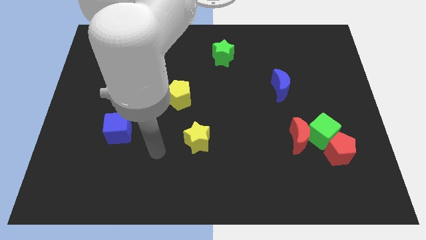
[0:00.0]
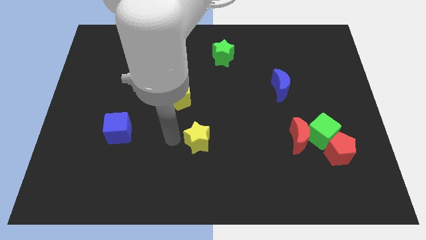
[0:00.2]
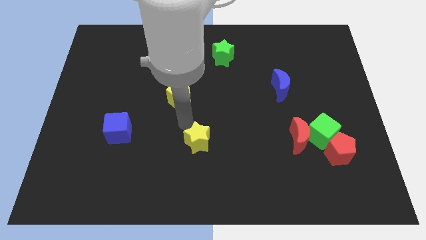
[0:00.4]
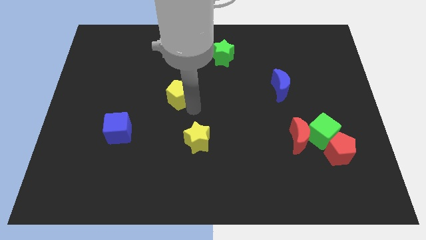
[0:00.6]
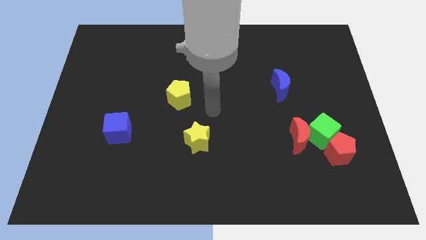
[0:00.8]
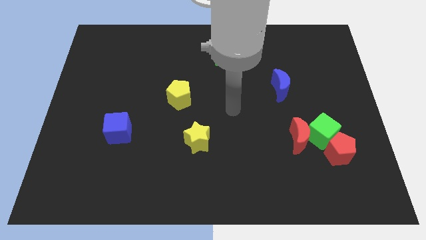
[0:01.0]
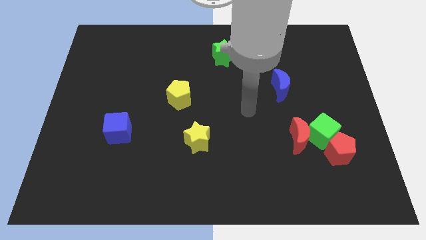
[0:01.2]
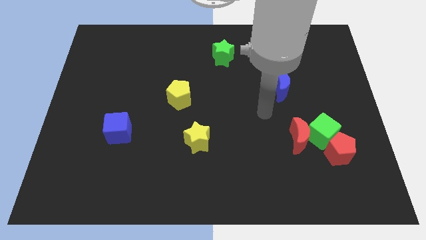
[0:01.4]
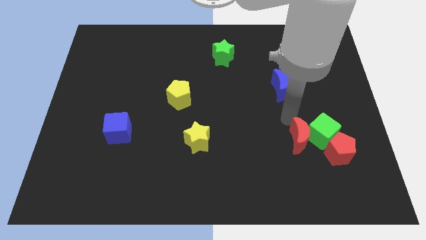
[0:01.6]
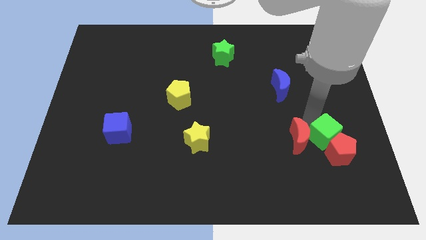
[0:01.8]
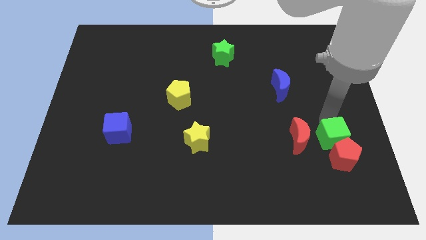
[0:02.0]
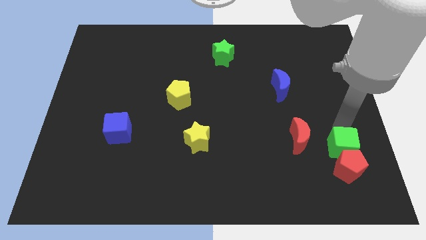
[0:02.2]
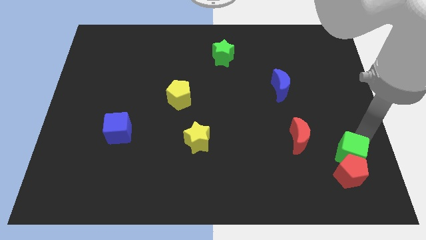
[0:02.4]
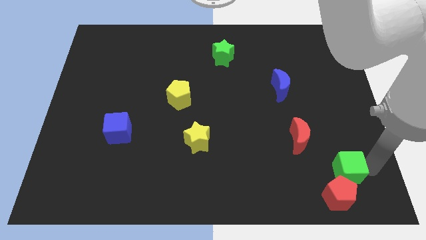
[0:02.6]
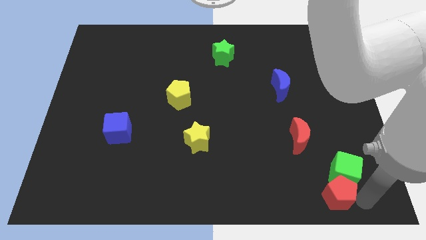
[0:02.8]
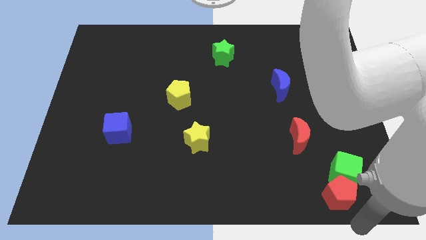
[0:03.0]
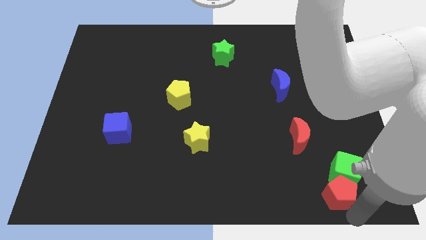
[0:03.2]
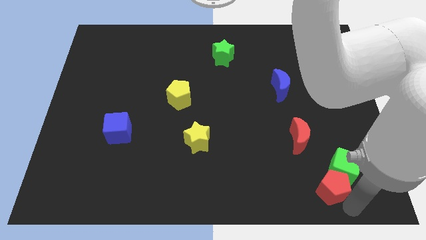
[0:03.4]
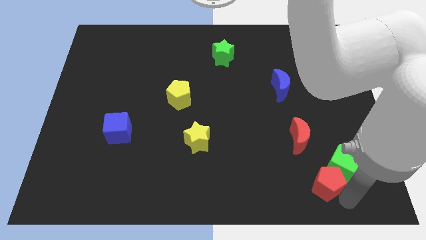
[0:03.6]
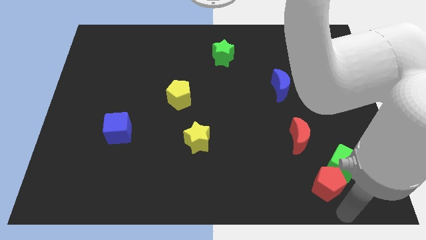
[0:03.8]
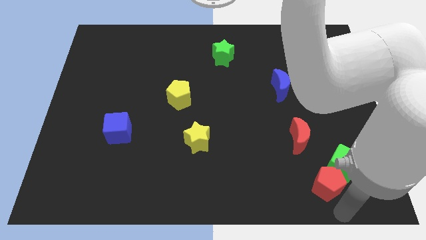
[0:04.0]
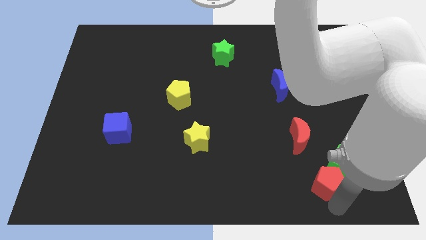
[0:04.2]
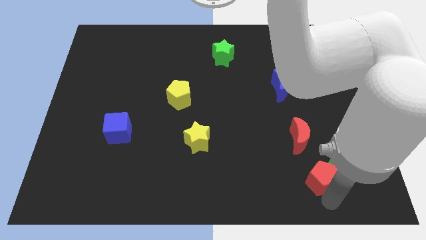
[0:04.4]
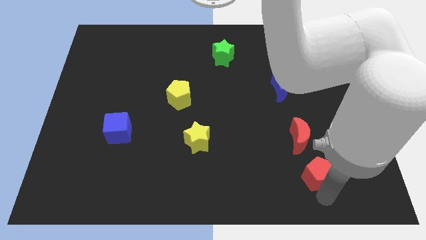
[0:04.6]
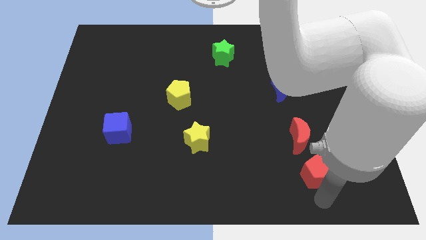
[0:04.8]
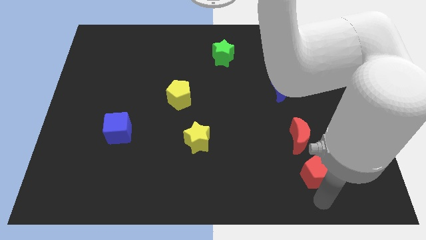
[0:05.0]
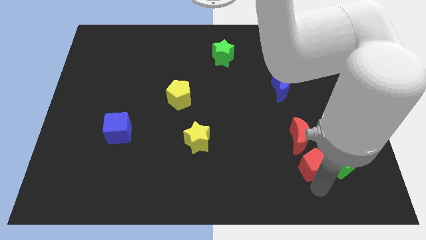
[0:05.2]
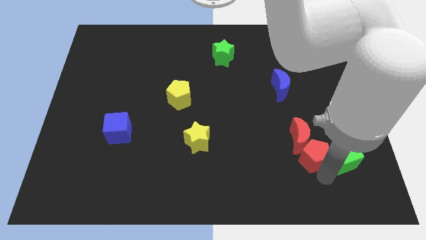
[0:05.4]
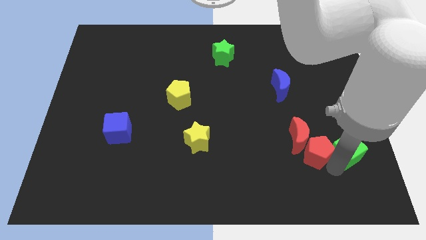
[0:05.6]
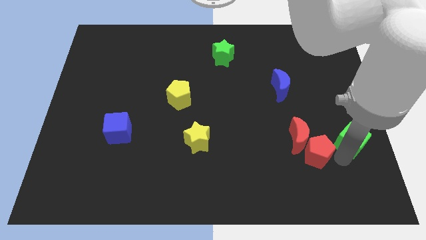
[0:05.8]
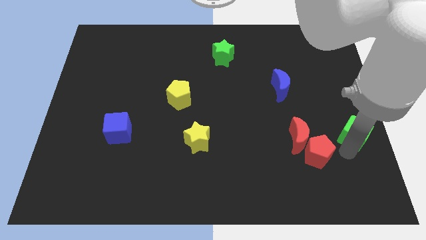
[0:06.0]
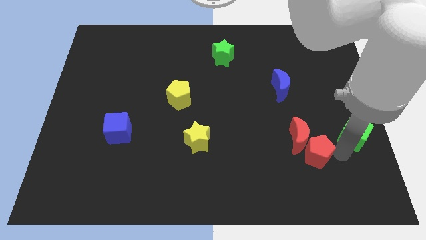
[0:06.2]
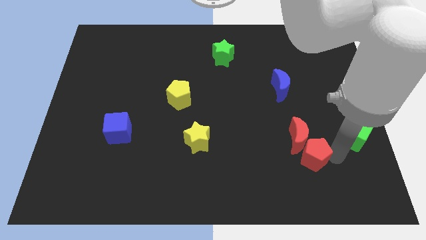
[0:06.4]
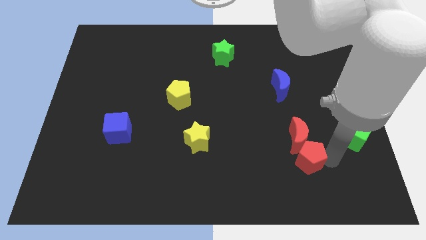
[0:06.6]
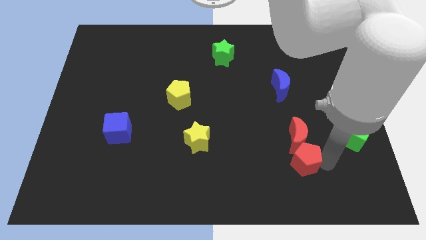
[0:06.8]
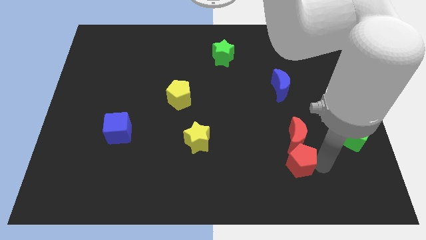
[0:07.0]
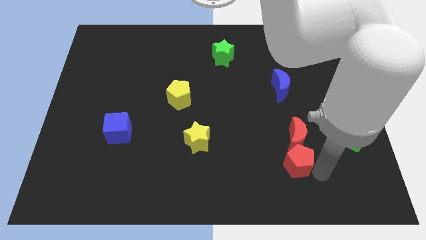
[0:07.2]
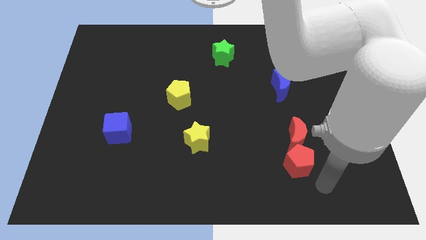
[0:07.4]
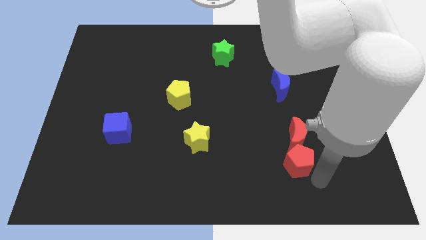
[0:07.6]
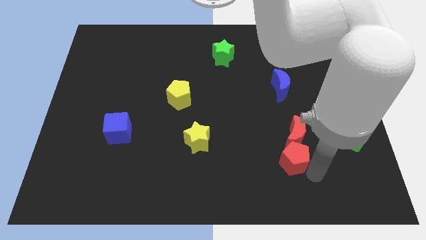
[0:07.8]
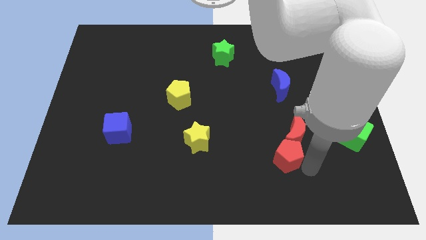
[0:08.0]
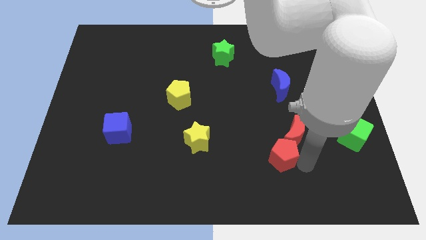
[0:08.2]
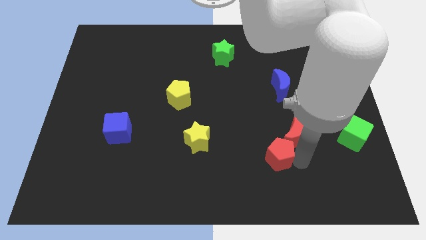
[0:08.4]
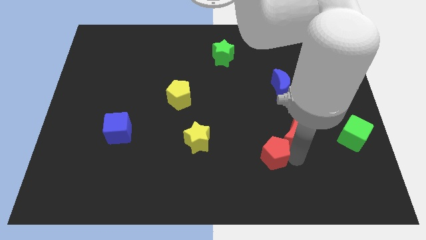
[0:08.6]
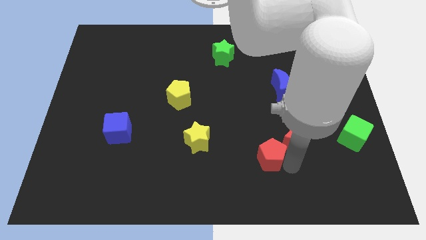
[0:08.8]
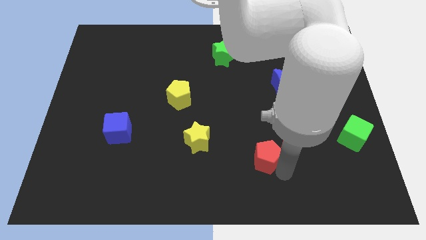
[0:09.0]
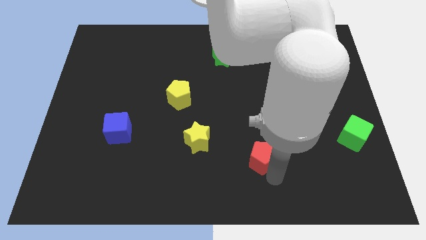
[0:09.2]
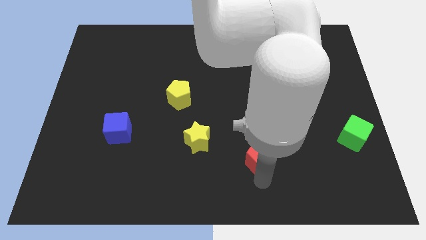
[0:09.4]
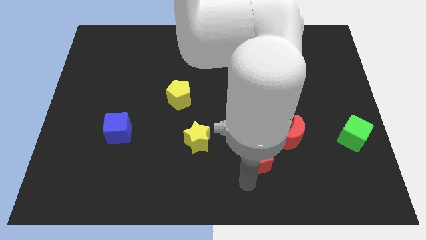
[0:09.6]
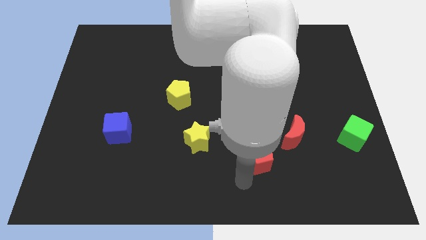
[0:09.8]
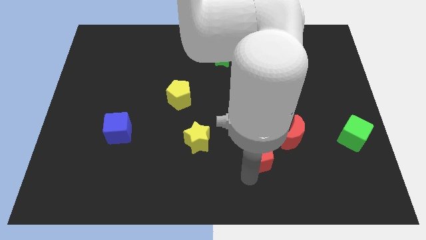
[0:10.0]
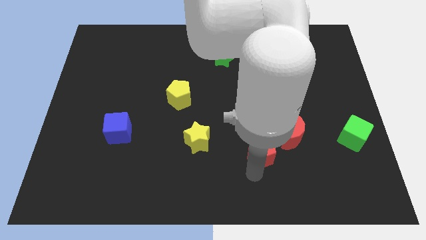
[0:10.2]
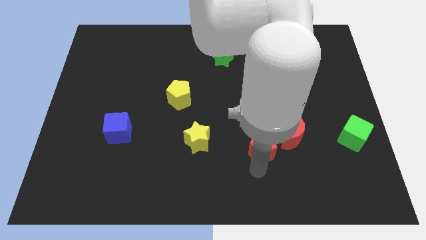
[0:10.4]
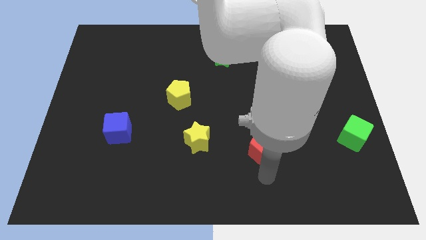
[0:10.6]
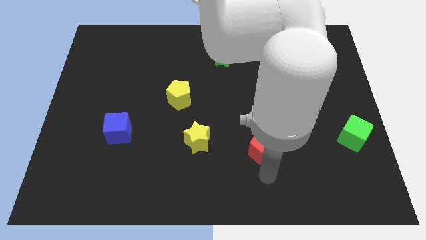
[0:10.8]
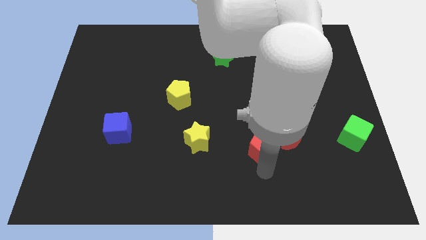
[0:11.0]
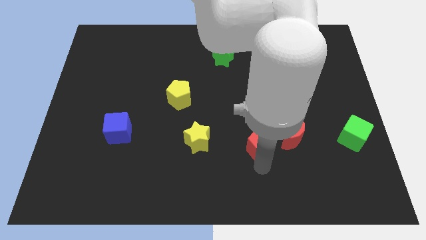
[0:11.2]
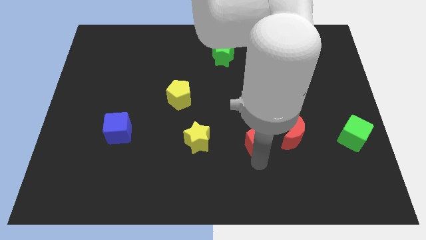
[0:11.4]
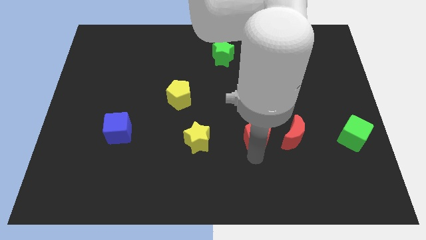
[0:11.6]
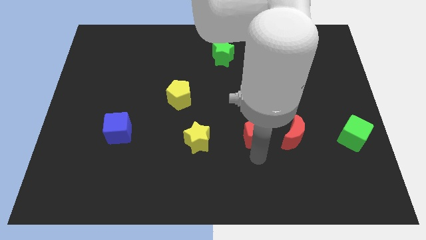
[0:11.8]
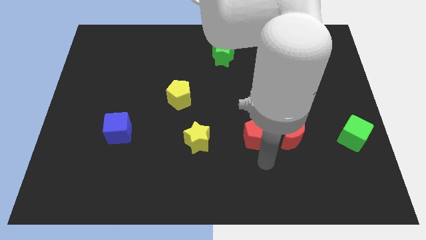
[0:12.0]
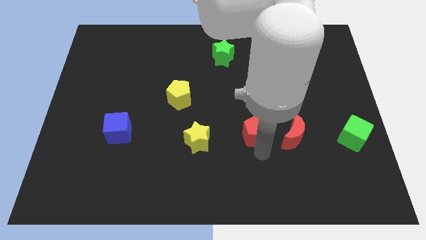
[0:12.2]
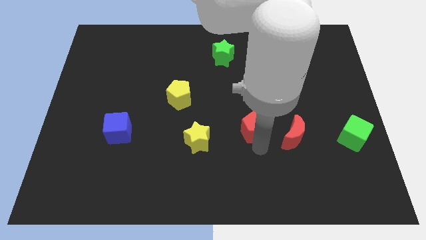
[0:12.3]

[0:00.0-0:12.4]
slide the red pentagon to the center
